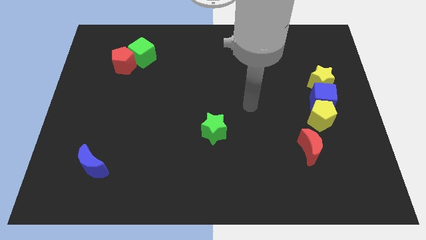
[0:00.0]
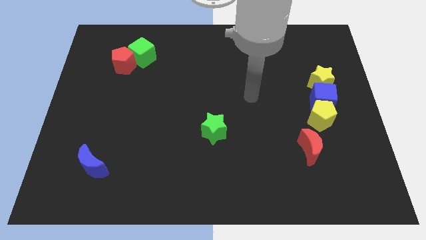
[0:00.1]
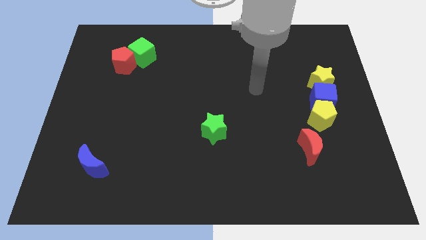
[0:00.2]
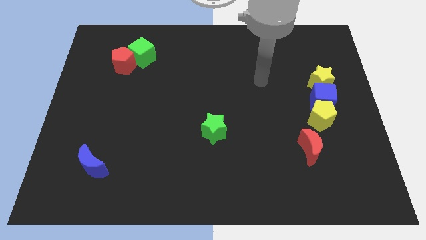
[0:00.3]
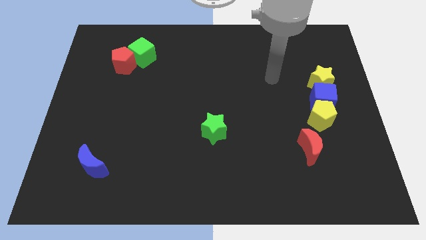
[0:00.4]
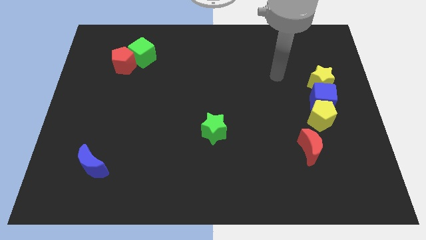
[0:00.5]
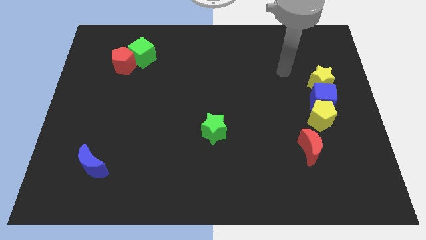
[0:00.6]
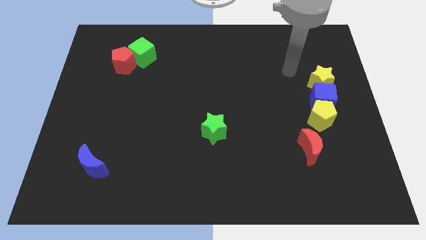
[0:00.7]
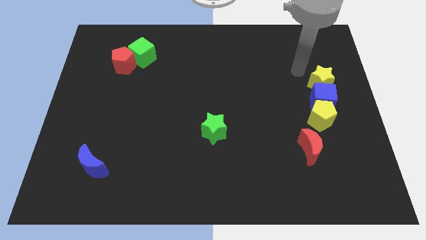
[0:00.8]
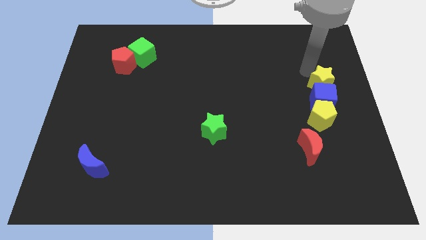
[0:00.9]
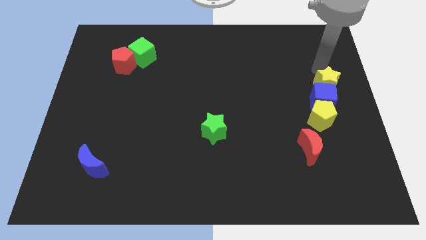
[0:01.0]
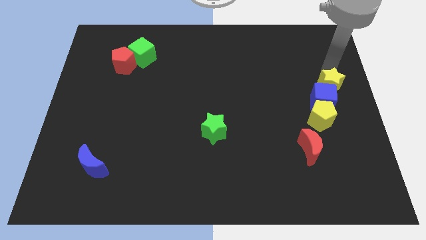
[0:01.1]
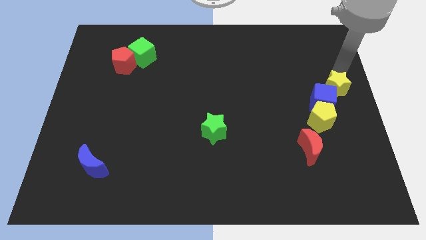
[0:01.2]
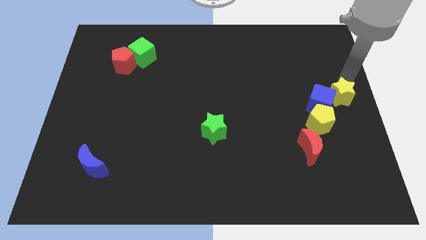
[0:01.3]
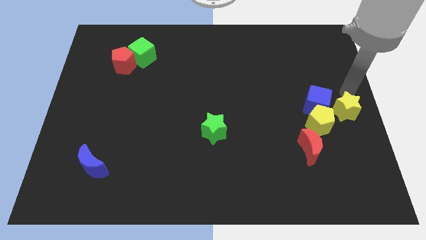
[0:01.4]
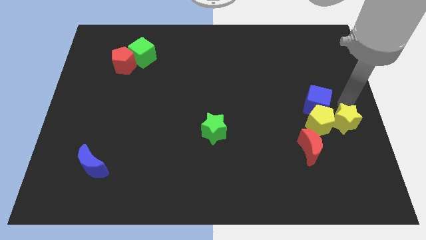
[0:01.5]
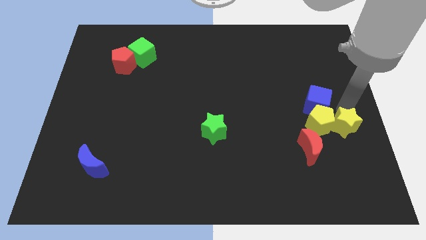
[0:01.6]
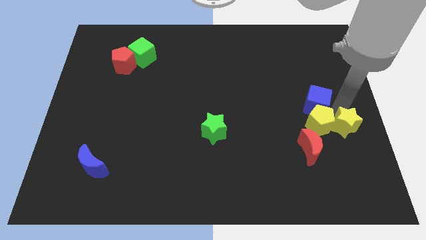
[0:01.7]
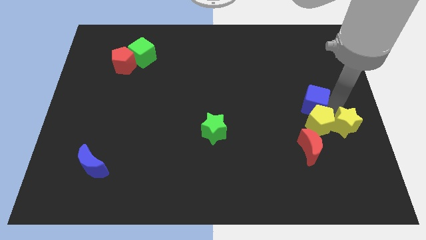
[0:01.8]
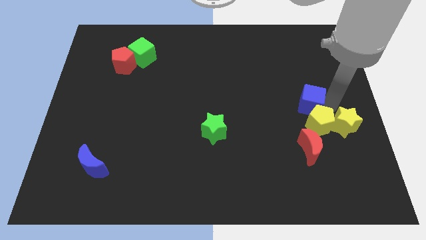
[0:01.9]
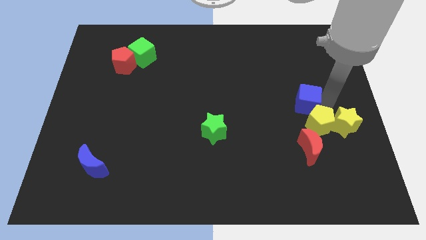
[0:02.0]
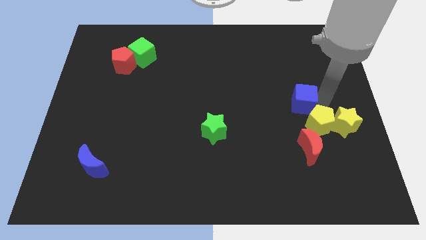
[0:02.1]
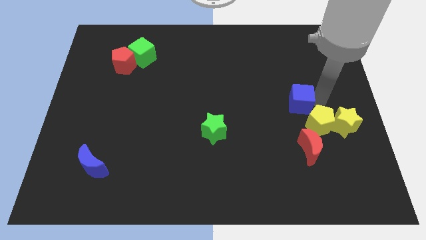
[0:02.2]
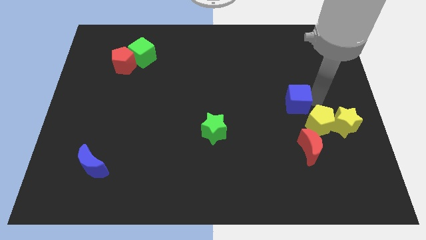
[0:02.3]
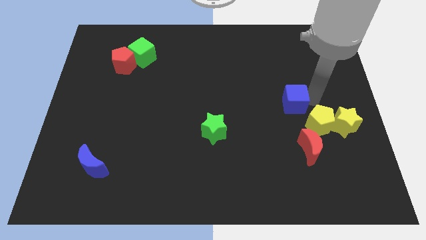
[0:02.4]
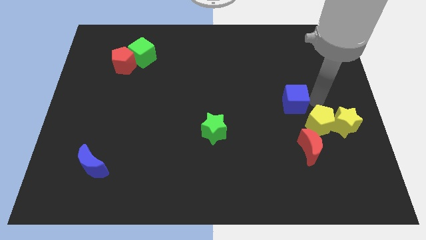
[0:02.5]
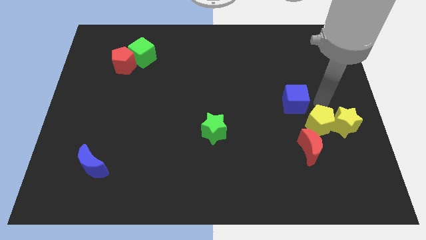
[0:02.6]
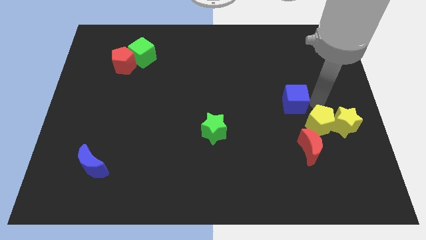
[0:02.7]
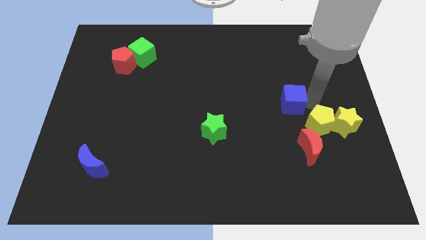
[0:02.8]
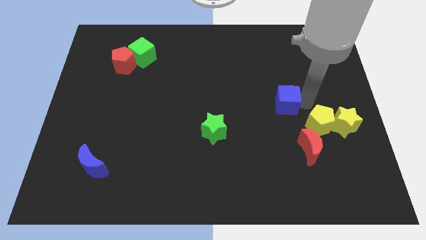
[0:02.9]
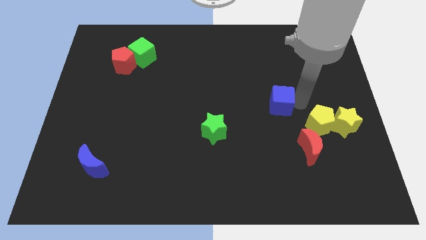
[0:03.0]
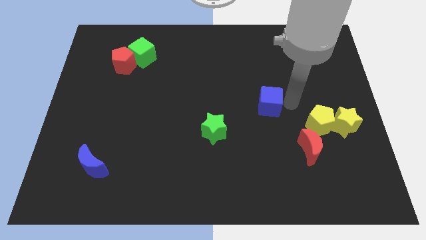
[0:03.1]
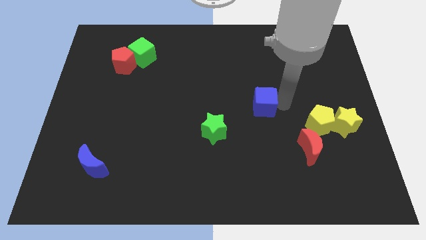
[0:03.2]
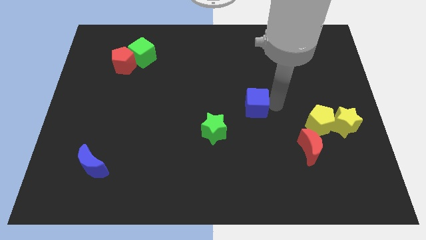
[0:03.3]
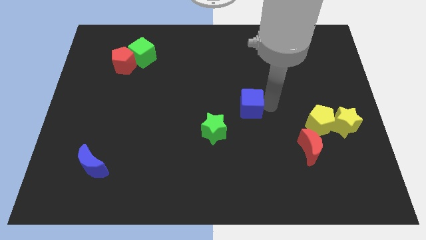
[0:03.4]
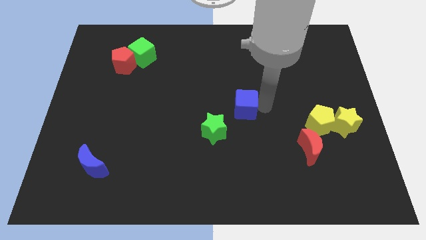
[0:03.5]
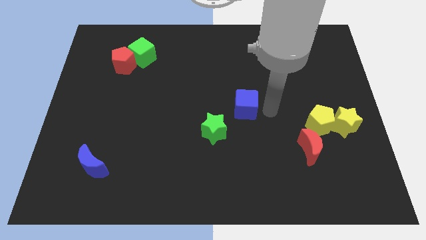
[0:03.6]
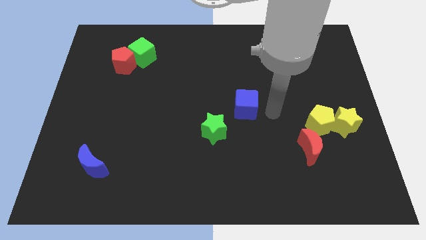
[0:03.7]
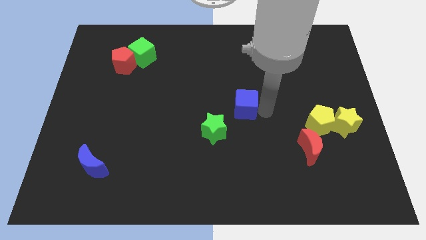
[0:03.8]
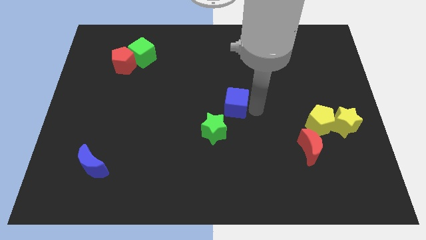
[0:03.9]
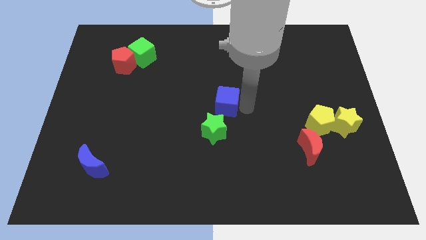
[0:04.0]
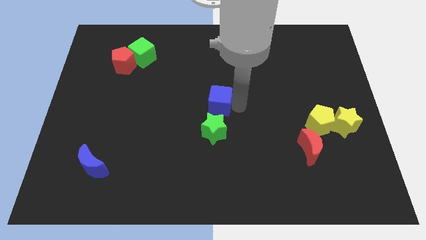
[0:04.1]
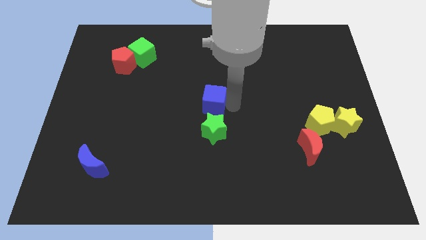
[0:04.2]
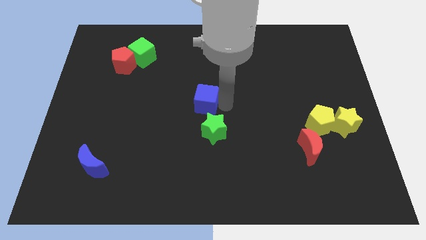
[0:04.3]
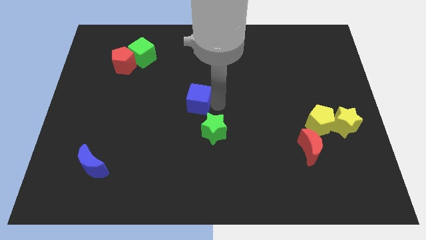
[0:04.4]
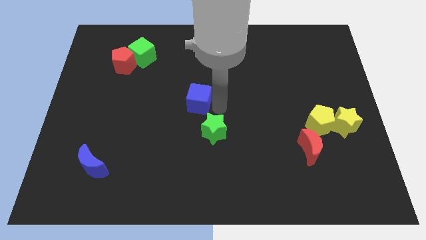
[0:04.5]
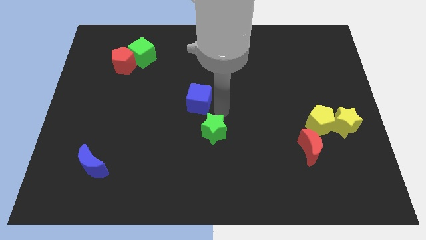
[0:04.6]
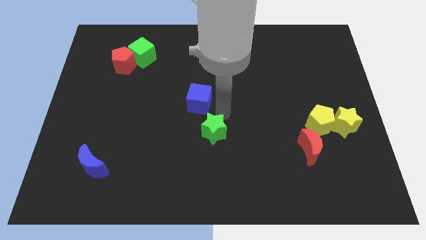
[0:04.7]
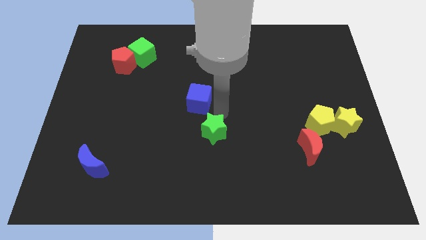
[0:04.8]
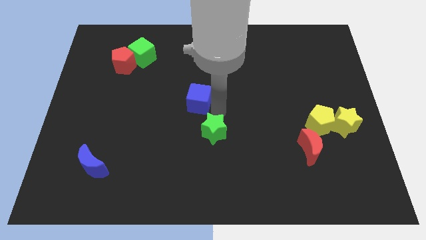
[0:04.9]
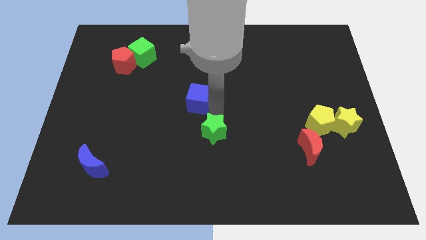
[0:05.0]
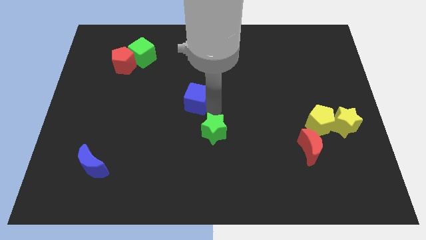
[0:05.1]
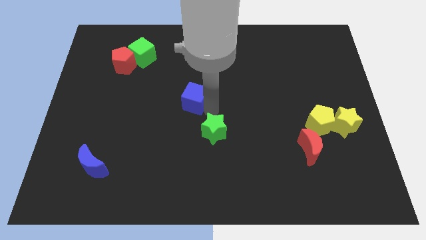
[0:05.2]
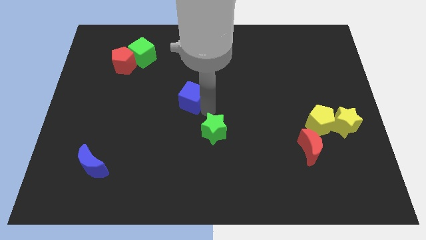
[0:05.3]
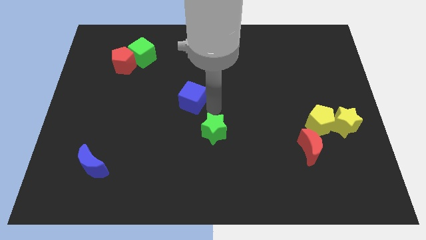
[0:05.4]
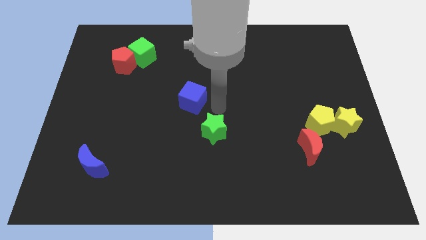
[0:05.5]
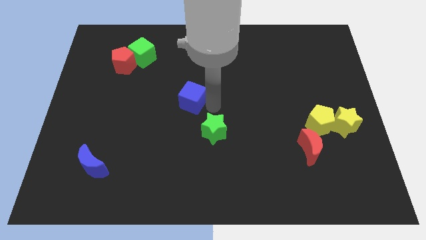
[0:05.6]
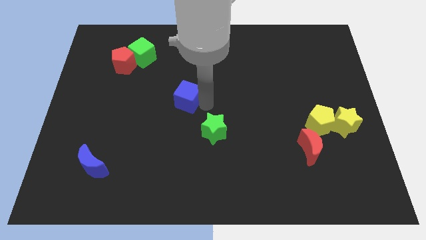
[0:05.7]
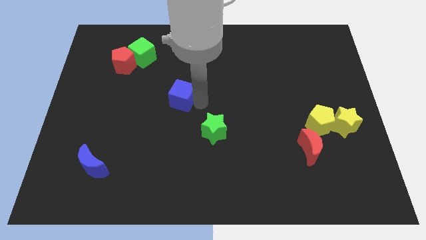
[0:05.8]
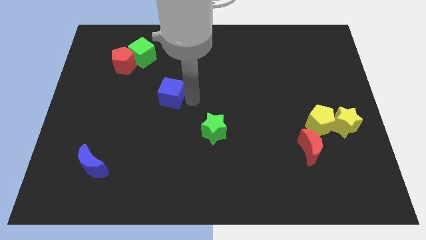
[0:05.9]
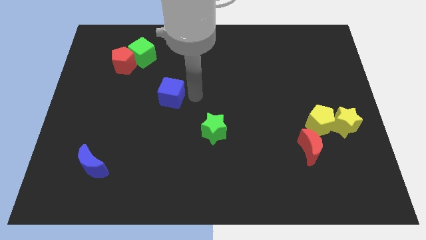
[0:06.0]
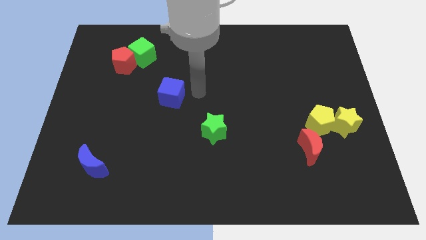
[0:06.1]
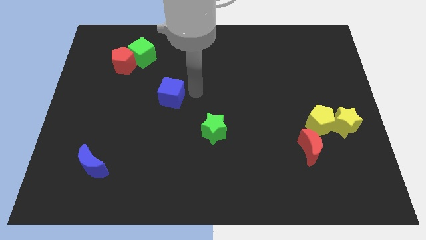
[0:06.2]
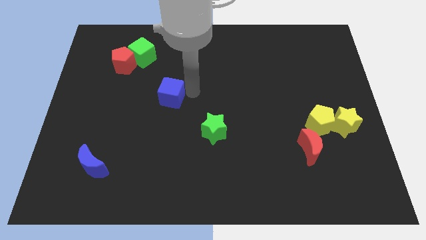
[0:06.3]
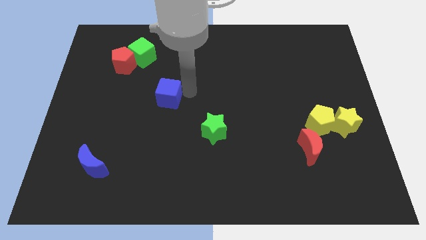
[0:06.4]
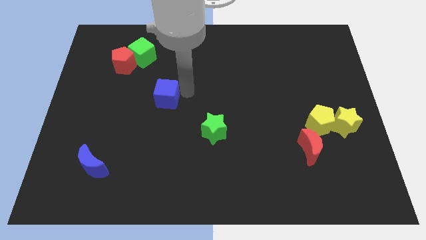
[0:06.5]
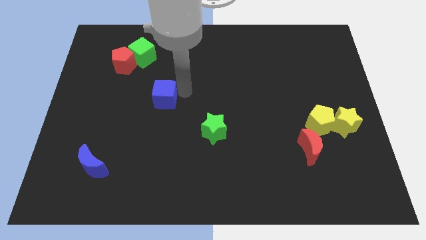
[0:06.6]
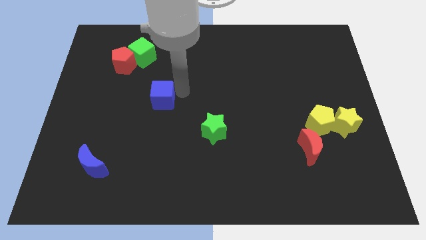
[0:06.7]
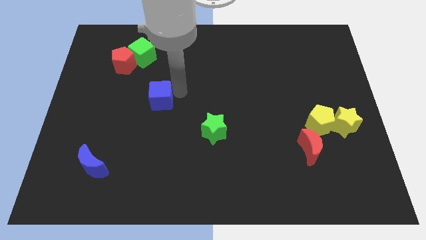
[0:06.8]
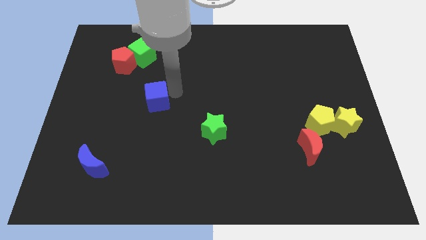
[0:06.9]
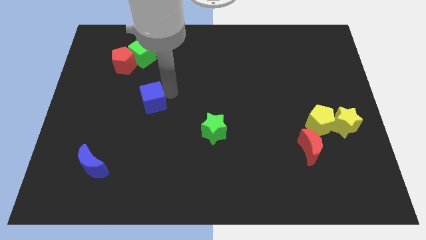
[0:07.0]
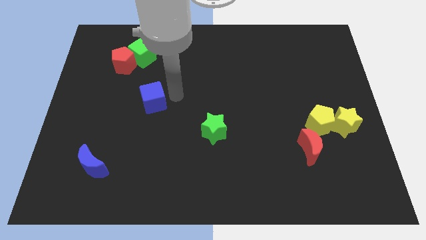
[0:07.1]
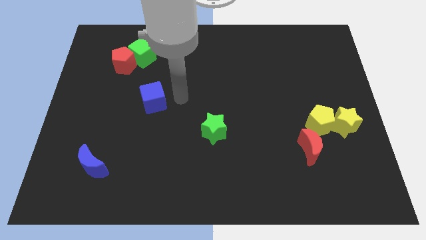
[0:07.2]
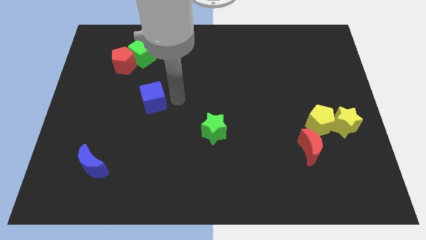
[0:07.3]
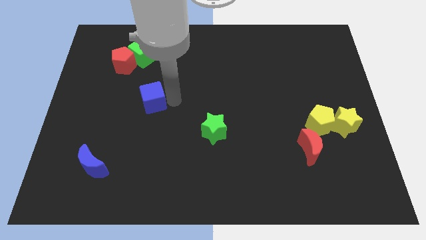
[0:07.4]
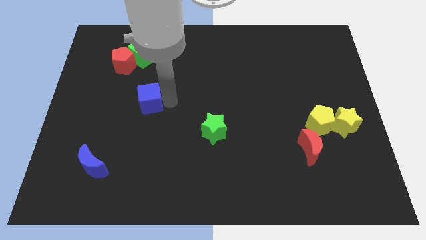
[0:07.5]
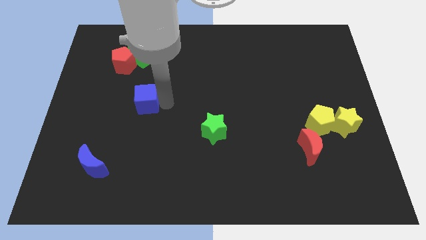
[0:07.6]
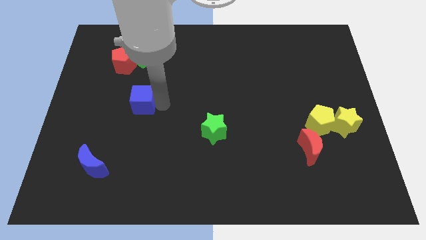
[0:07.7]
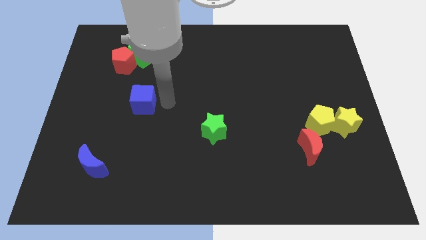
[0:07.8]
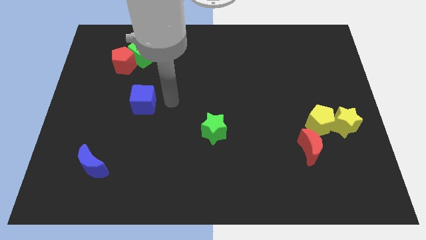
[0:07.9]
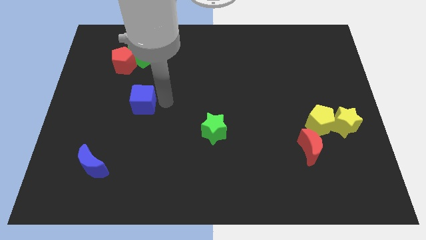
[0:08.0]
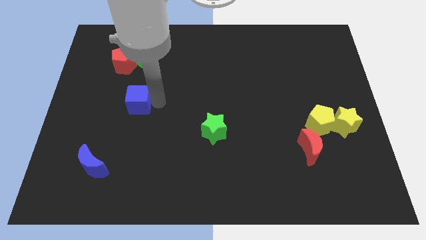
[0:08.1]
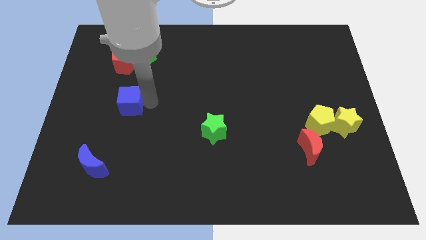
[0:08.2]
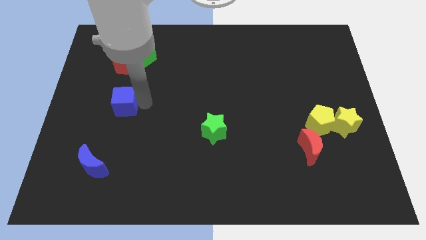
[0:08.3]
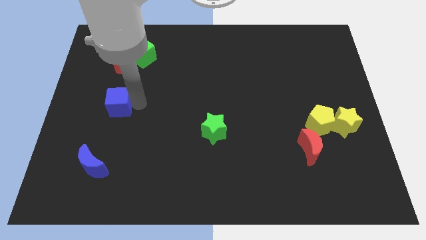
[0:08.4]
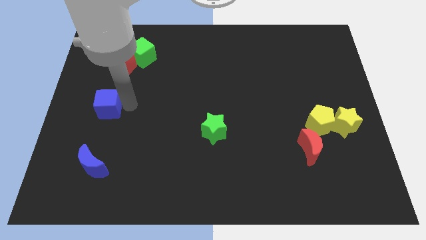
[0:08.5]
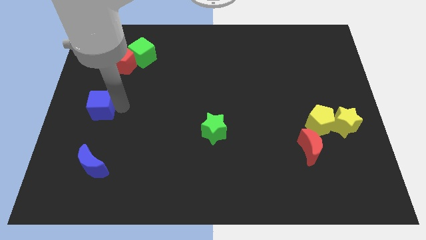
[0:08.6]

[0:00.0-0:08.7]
slide the blue cube to the left side
